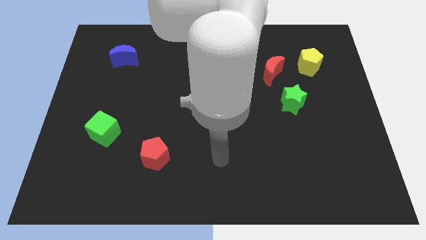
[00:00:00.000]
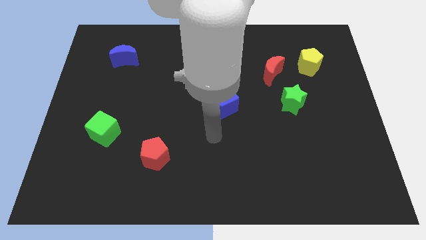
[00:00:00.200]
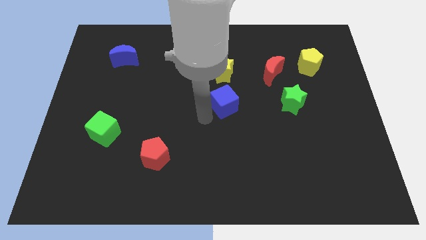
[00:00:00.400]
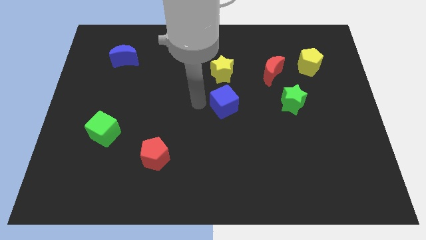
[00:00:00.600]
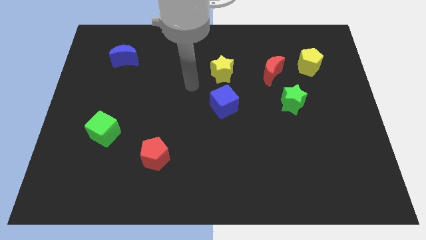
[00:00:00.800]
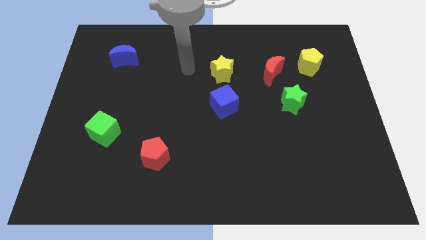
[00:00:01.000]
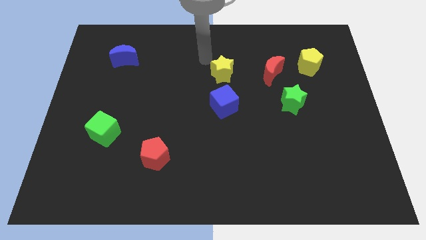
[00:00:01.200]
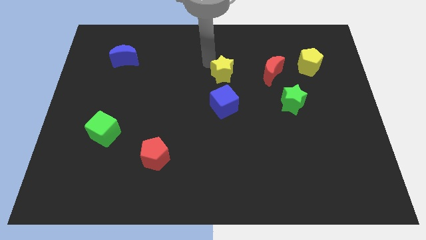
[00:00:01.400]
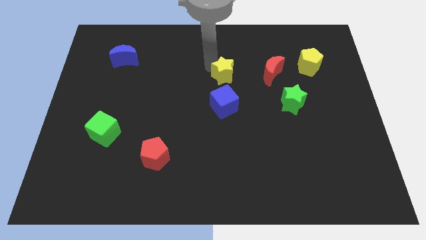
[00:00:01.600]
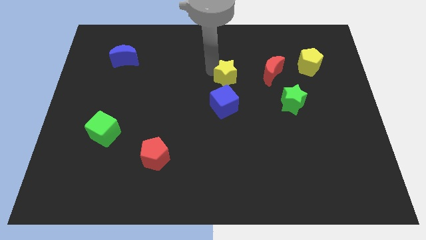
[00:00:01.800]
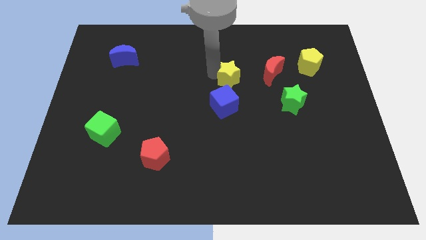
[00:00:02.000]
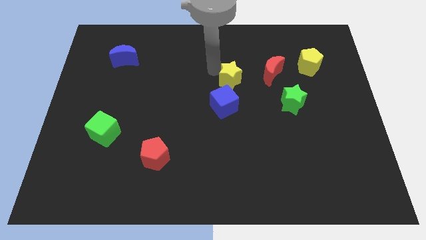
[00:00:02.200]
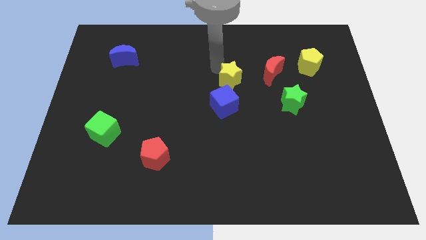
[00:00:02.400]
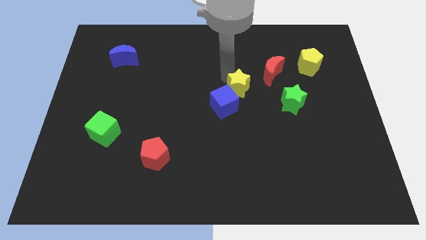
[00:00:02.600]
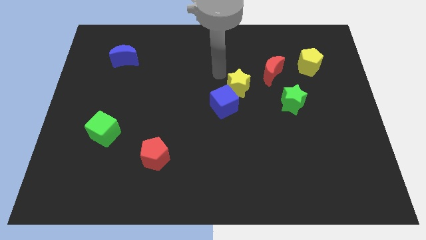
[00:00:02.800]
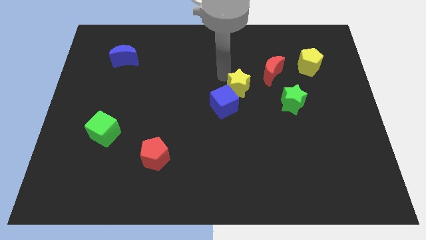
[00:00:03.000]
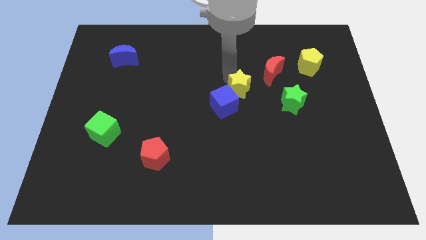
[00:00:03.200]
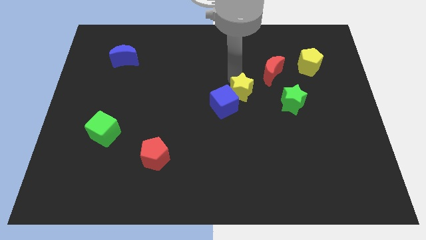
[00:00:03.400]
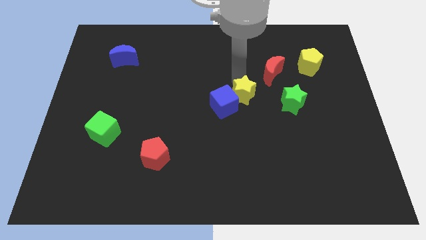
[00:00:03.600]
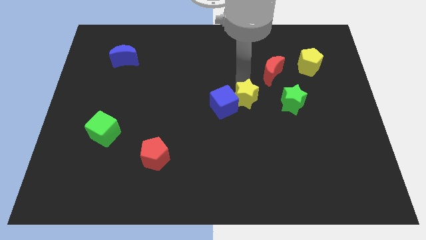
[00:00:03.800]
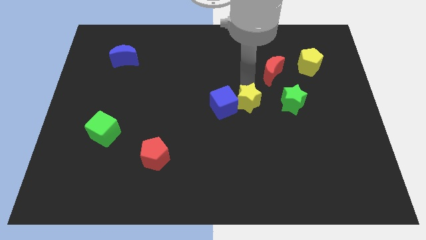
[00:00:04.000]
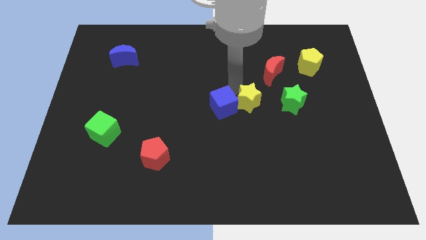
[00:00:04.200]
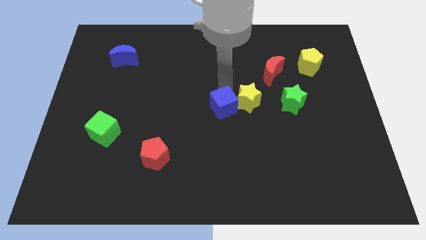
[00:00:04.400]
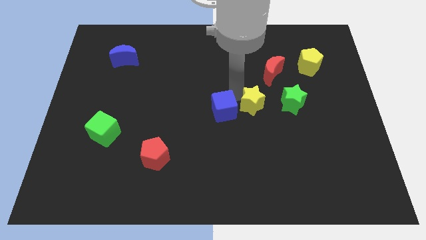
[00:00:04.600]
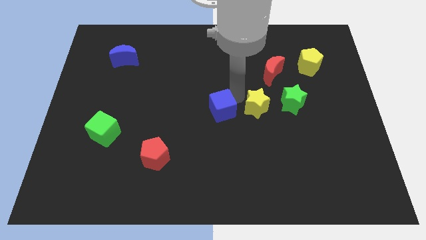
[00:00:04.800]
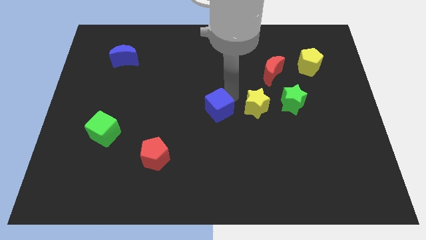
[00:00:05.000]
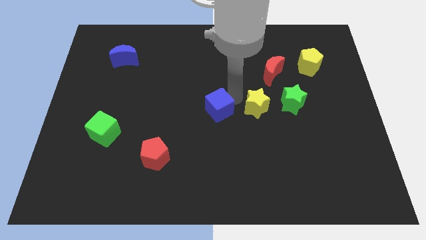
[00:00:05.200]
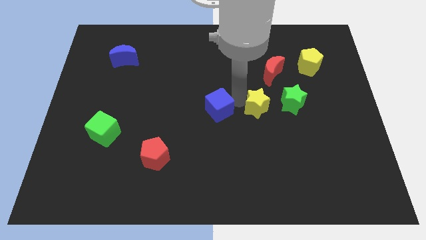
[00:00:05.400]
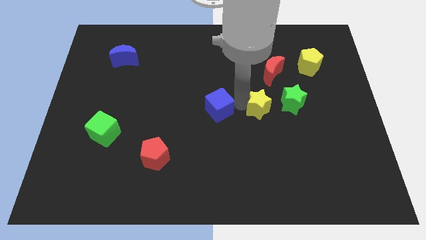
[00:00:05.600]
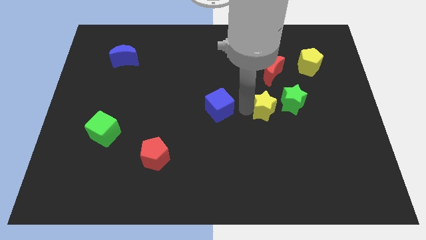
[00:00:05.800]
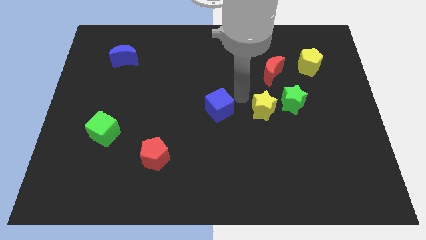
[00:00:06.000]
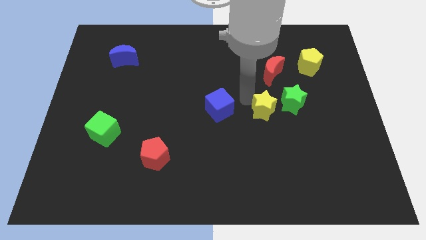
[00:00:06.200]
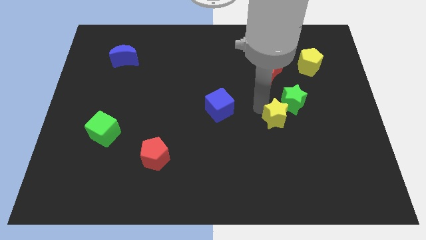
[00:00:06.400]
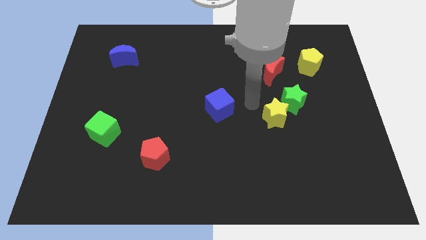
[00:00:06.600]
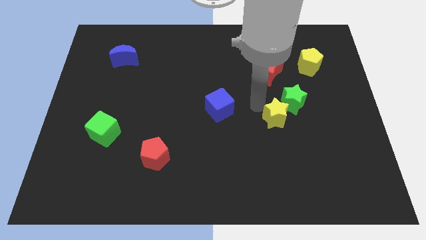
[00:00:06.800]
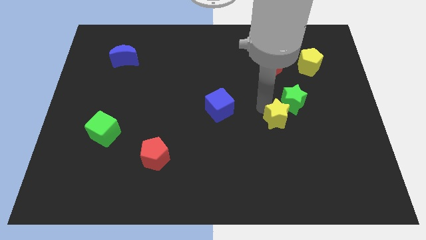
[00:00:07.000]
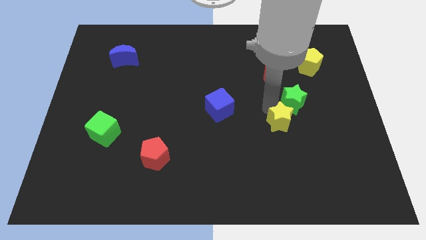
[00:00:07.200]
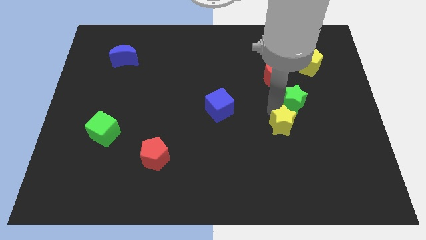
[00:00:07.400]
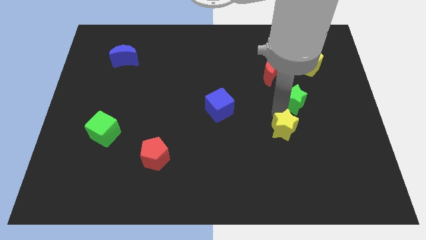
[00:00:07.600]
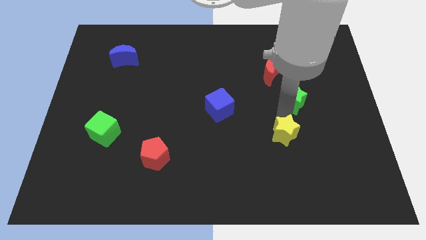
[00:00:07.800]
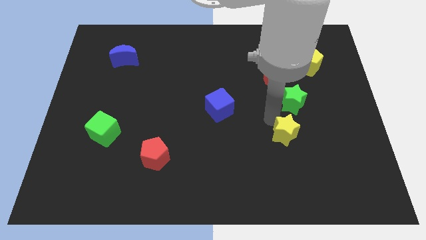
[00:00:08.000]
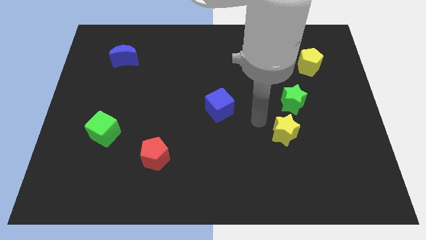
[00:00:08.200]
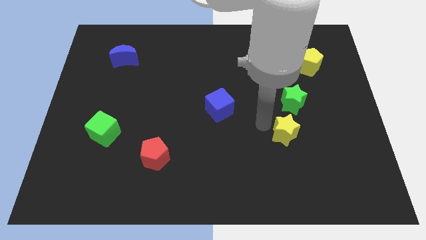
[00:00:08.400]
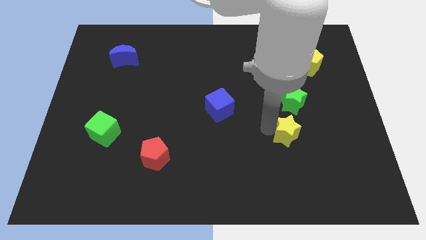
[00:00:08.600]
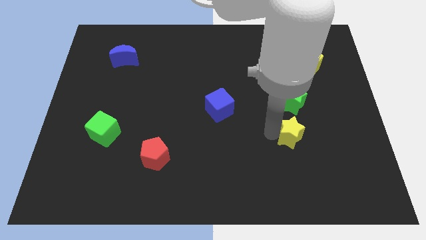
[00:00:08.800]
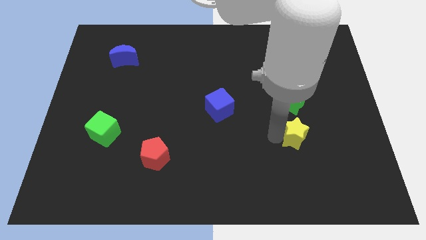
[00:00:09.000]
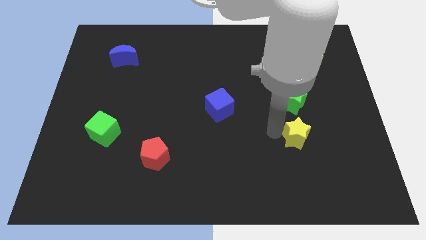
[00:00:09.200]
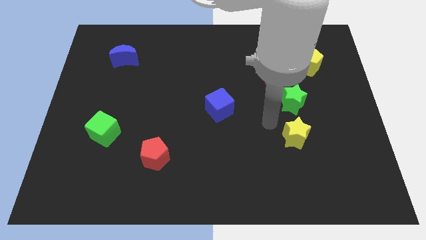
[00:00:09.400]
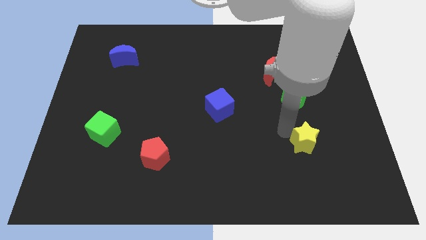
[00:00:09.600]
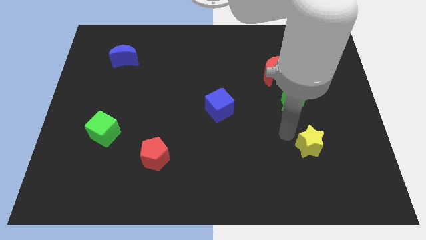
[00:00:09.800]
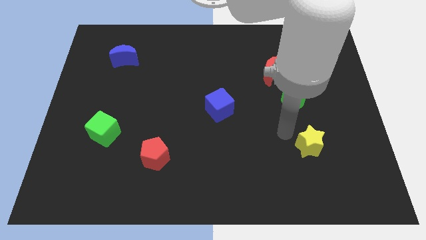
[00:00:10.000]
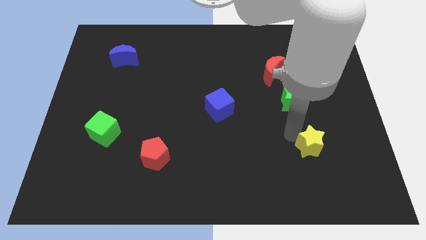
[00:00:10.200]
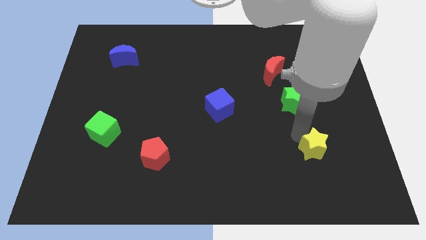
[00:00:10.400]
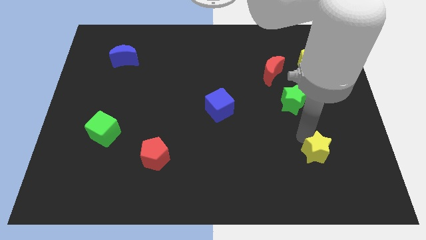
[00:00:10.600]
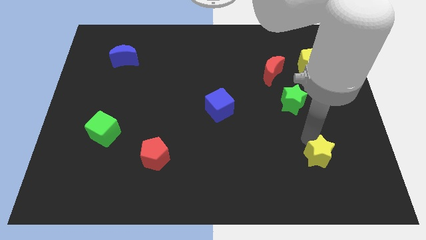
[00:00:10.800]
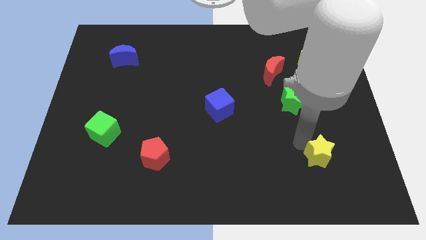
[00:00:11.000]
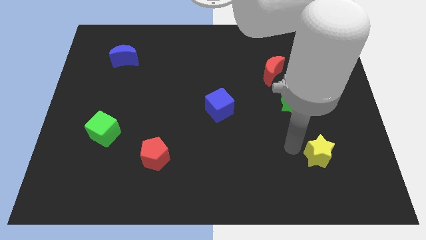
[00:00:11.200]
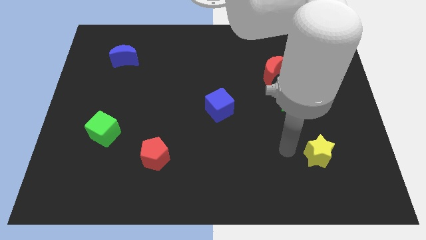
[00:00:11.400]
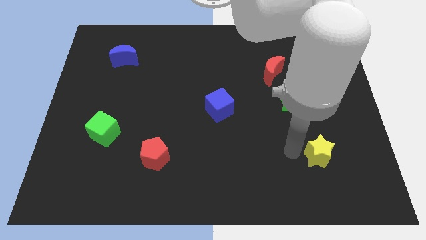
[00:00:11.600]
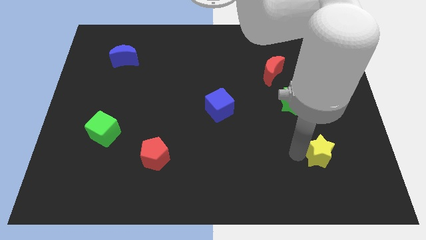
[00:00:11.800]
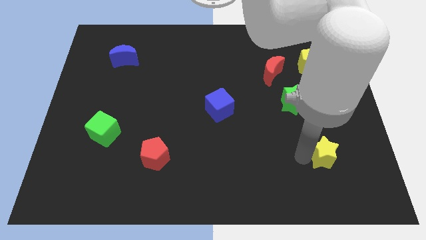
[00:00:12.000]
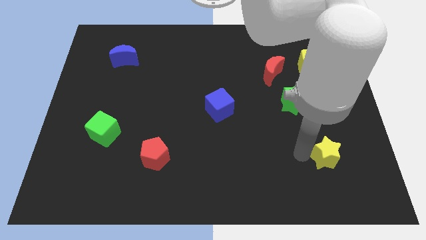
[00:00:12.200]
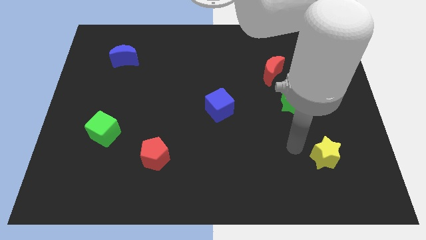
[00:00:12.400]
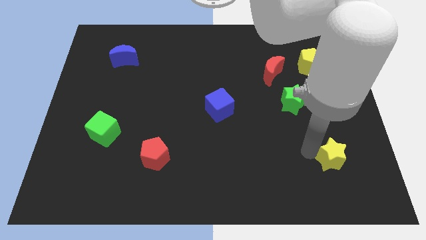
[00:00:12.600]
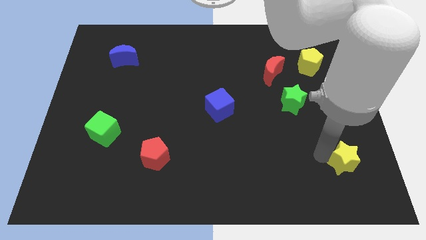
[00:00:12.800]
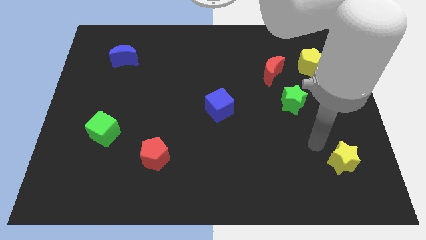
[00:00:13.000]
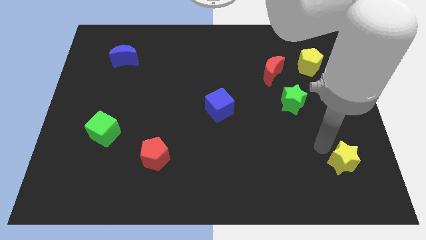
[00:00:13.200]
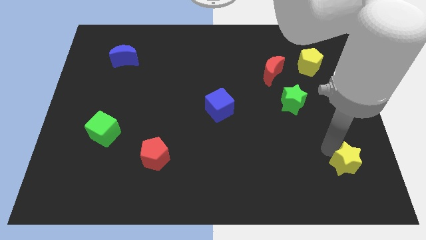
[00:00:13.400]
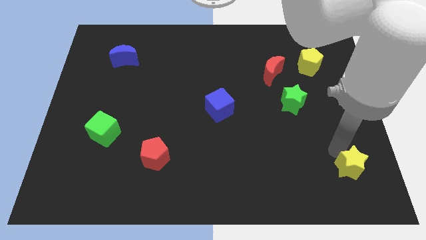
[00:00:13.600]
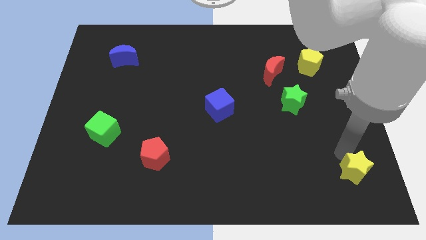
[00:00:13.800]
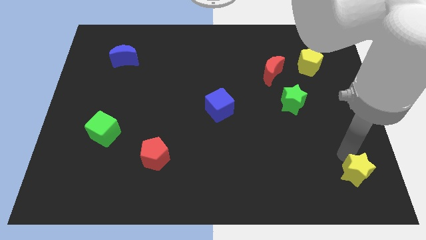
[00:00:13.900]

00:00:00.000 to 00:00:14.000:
put the yellow star to the bottom right
